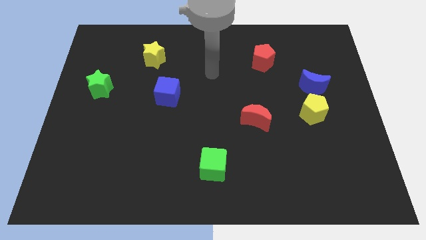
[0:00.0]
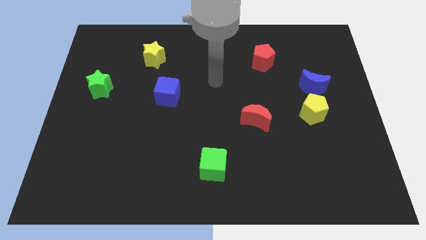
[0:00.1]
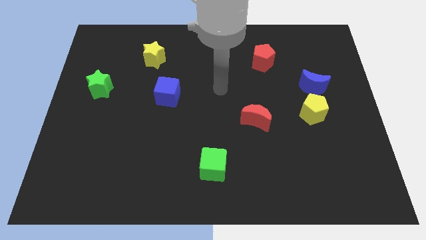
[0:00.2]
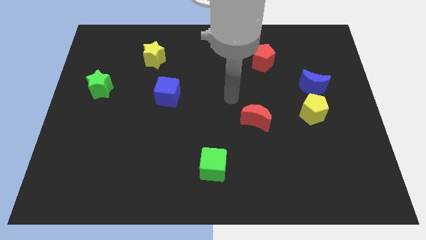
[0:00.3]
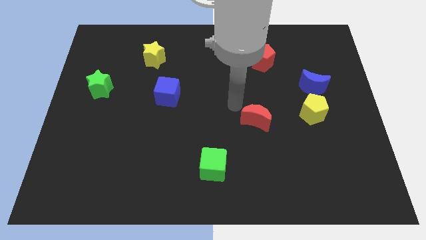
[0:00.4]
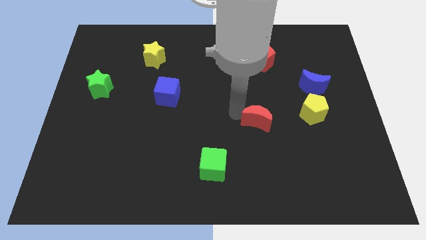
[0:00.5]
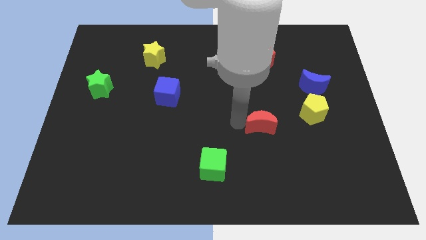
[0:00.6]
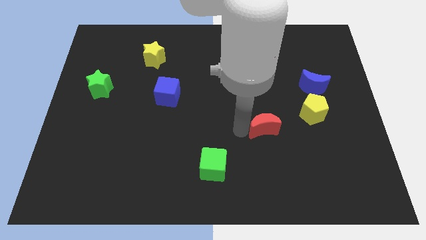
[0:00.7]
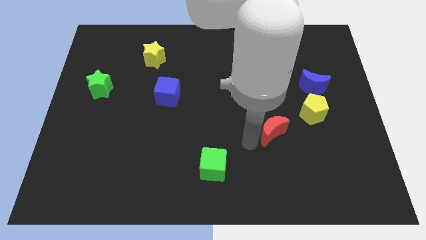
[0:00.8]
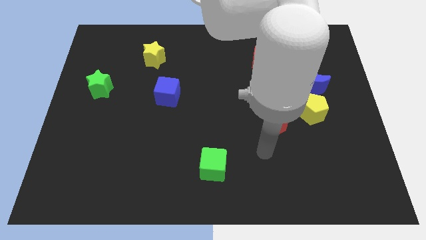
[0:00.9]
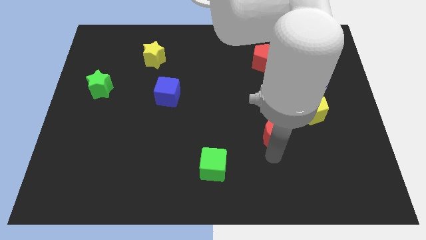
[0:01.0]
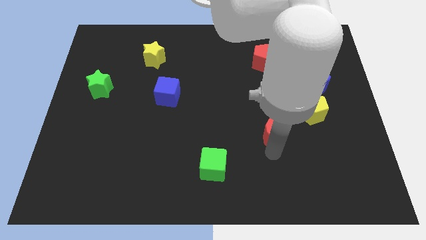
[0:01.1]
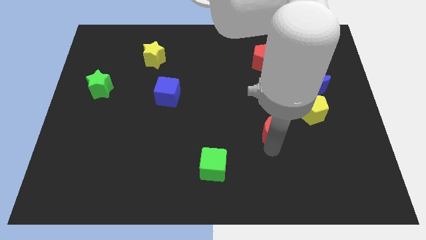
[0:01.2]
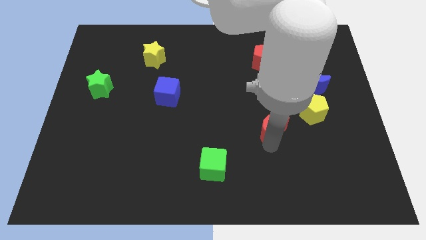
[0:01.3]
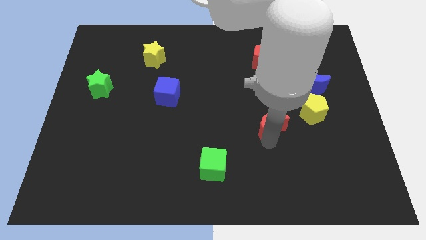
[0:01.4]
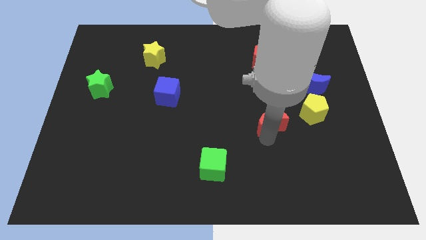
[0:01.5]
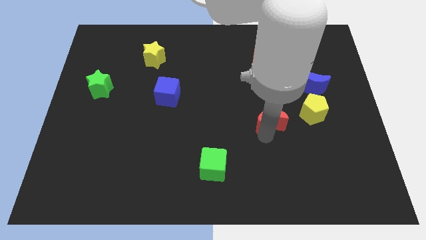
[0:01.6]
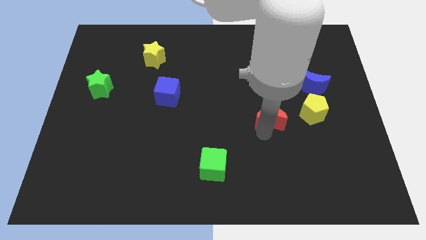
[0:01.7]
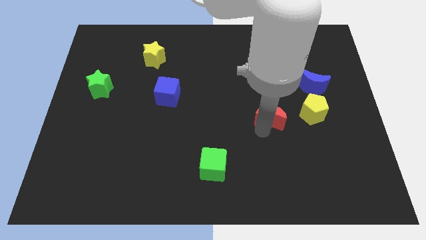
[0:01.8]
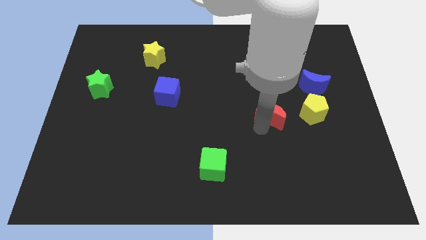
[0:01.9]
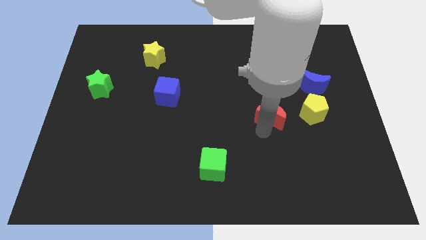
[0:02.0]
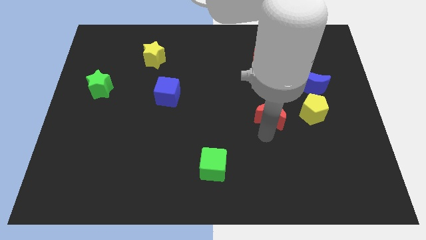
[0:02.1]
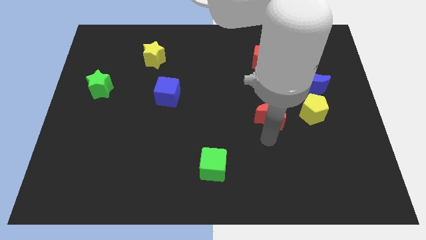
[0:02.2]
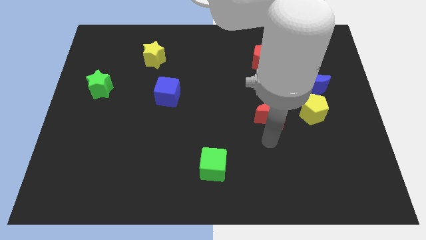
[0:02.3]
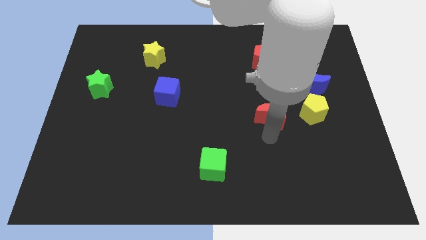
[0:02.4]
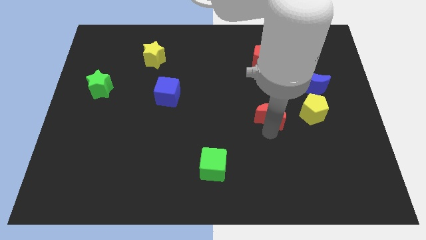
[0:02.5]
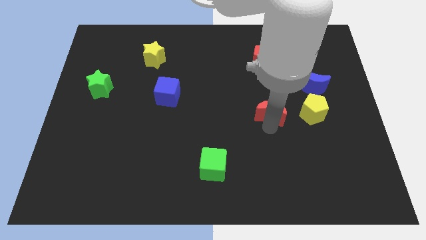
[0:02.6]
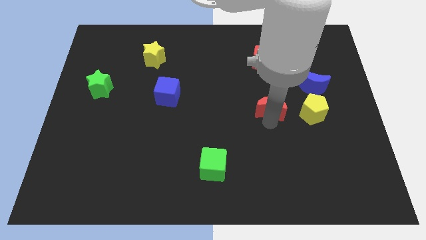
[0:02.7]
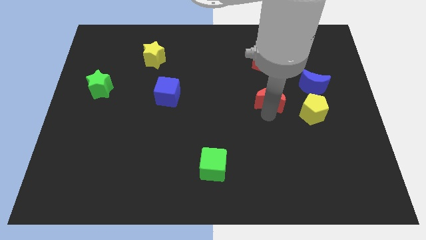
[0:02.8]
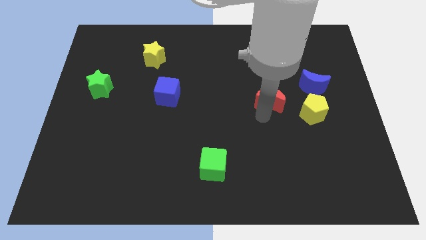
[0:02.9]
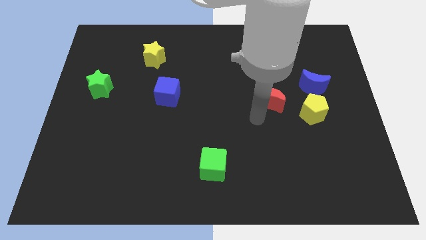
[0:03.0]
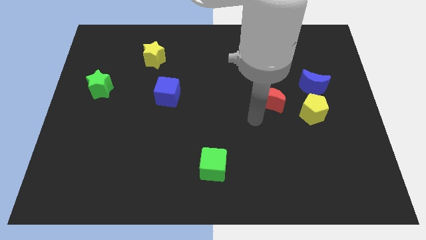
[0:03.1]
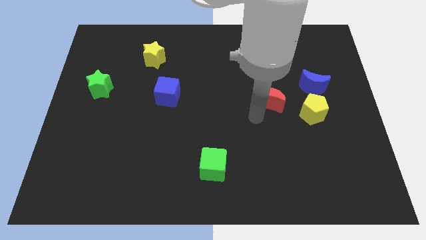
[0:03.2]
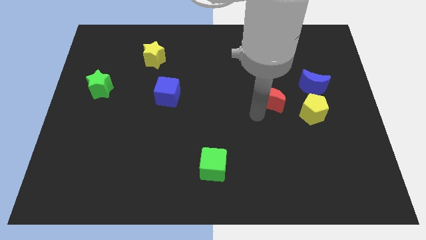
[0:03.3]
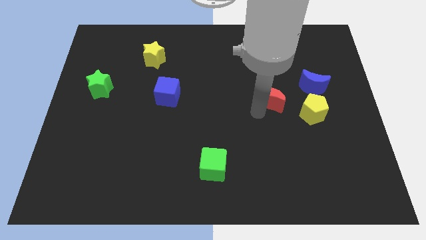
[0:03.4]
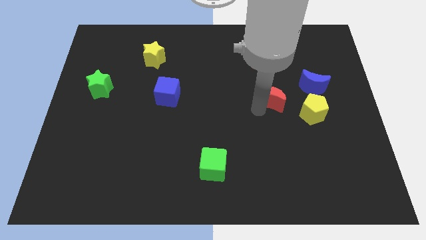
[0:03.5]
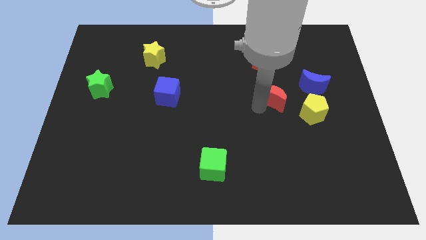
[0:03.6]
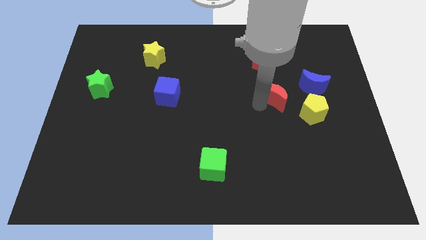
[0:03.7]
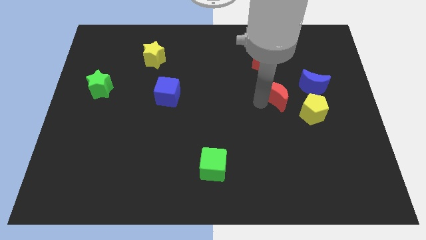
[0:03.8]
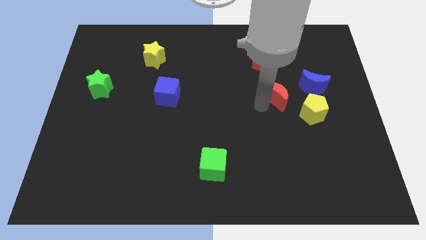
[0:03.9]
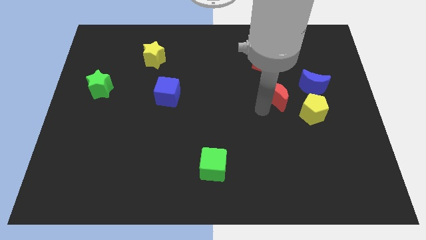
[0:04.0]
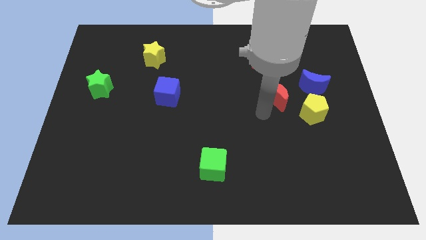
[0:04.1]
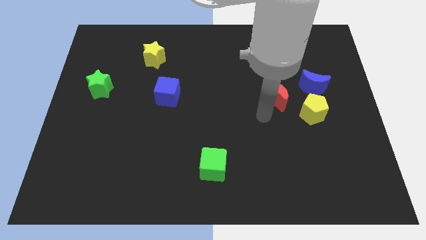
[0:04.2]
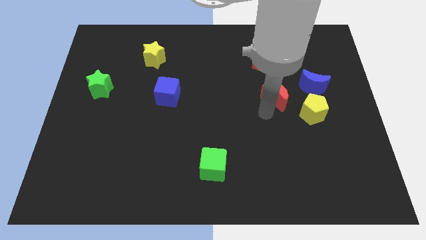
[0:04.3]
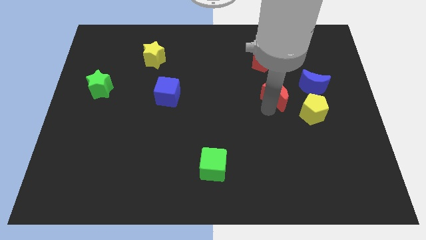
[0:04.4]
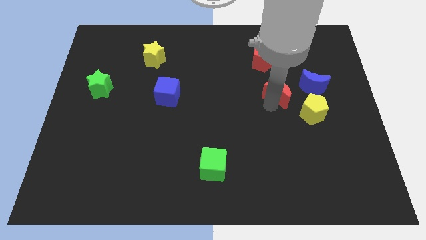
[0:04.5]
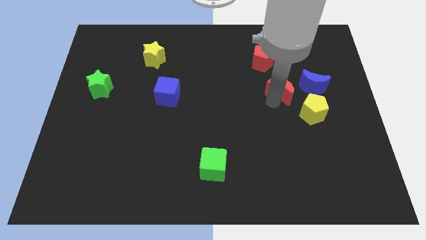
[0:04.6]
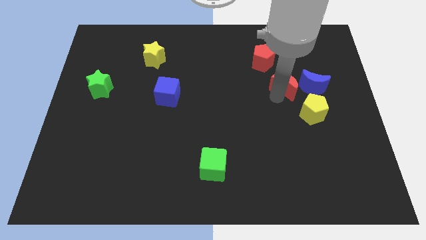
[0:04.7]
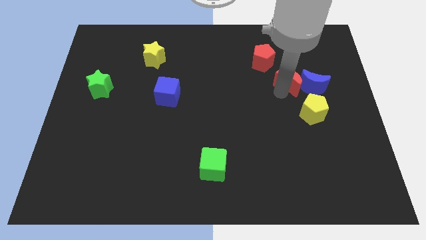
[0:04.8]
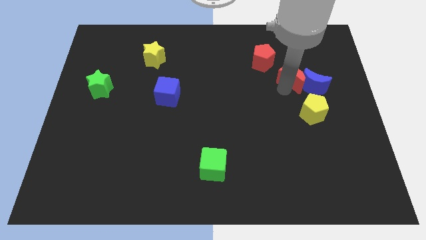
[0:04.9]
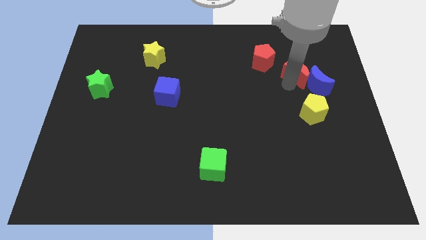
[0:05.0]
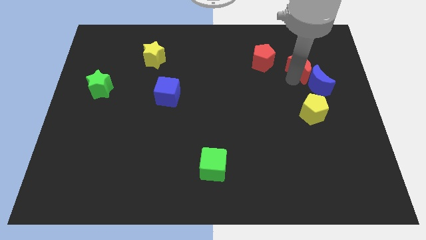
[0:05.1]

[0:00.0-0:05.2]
move the red moon to the top of the blue moon

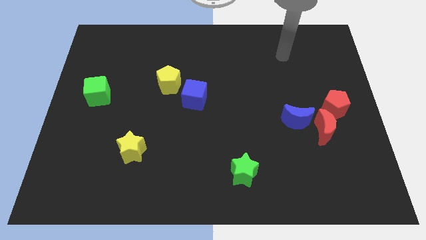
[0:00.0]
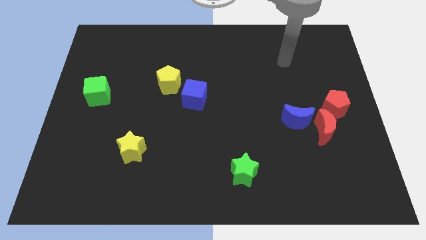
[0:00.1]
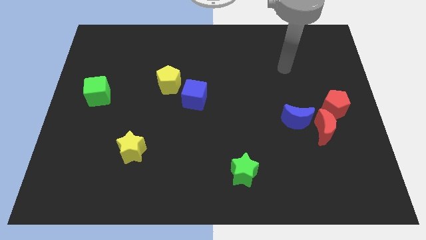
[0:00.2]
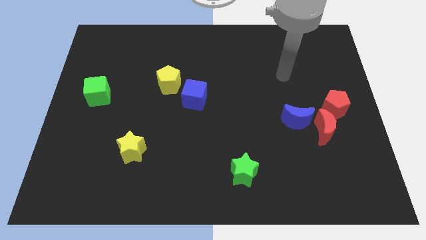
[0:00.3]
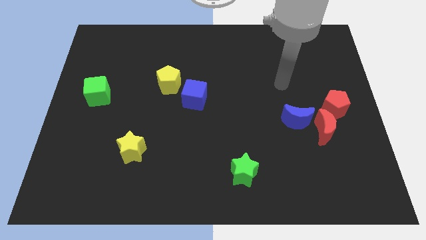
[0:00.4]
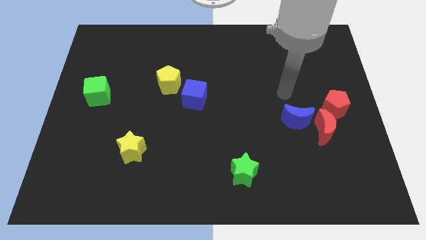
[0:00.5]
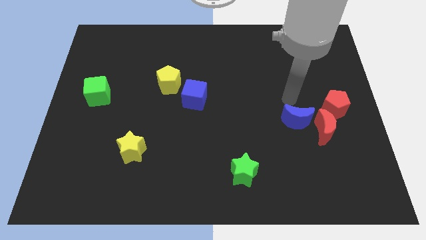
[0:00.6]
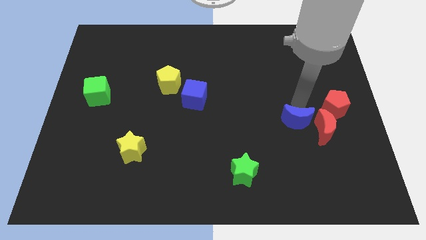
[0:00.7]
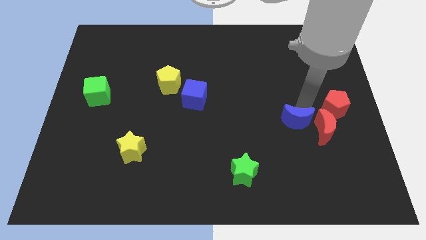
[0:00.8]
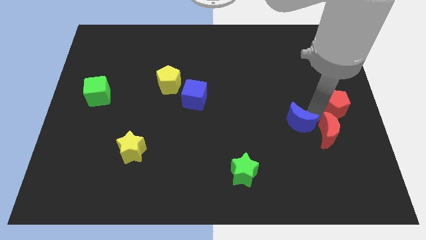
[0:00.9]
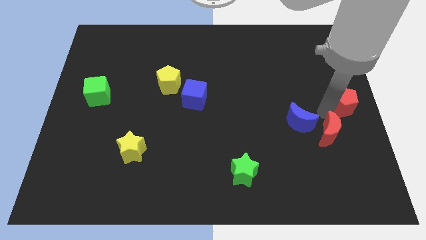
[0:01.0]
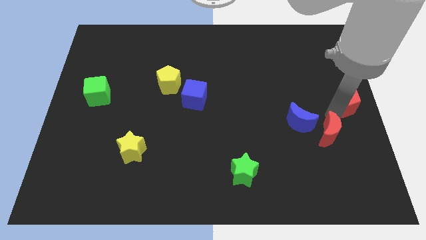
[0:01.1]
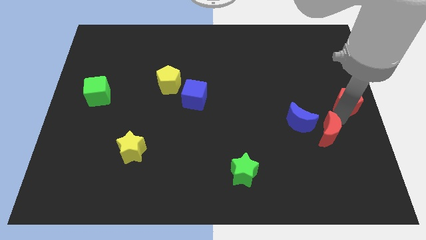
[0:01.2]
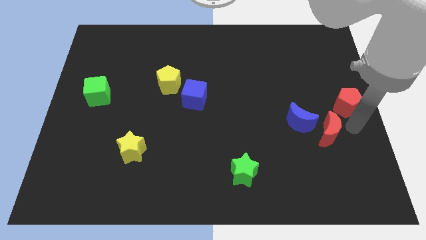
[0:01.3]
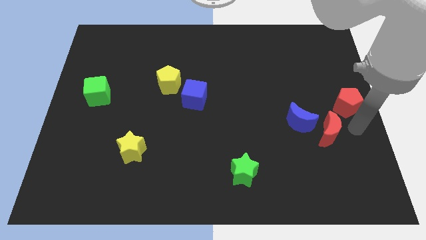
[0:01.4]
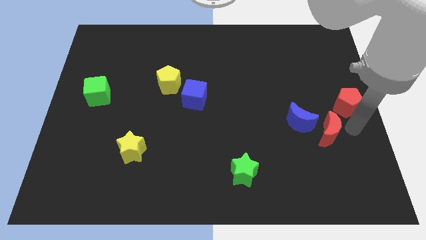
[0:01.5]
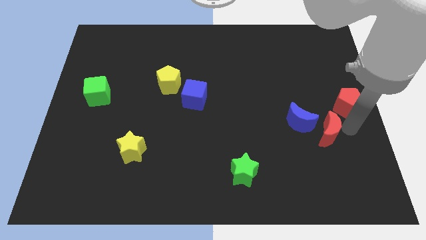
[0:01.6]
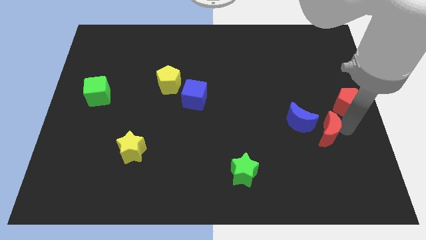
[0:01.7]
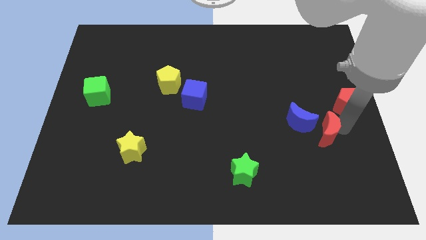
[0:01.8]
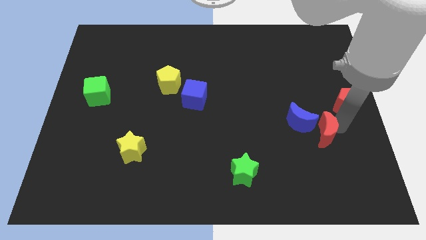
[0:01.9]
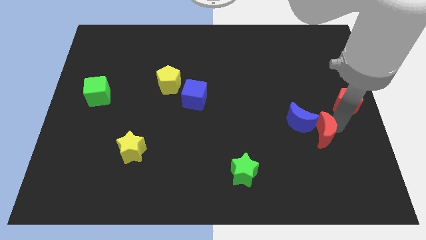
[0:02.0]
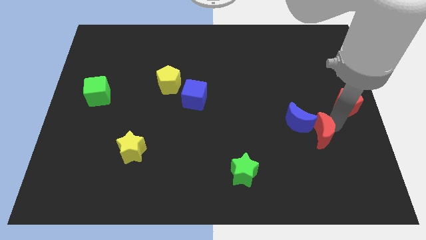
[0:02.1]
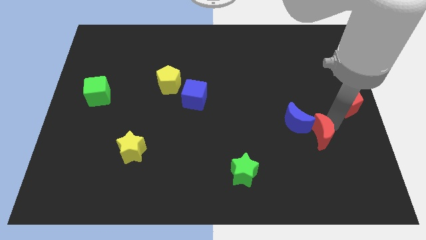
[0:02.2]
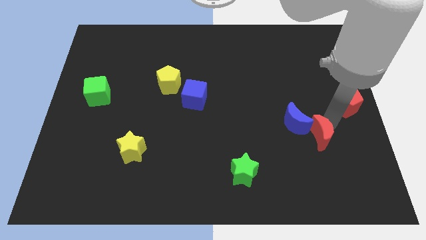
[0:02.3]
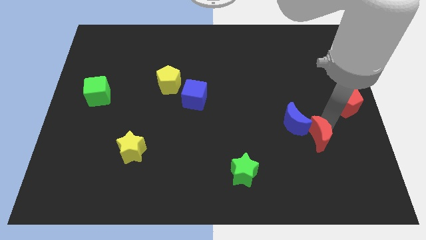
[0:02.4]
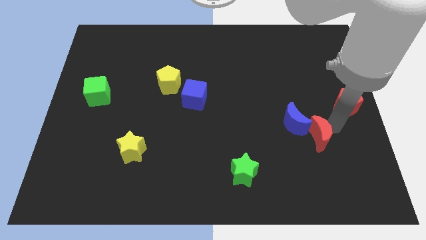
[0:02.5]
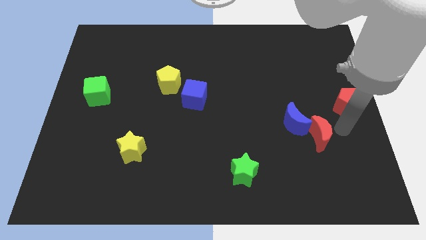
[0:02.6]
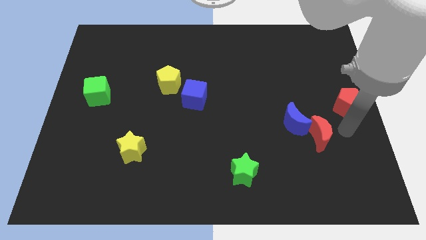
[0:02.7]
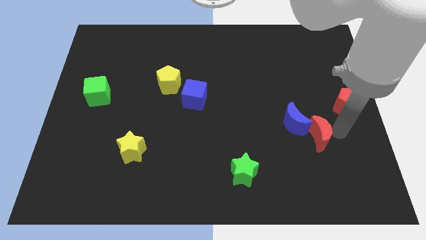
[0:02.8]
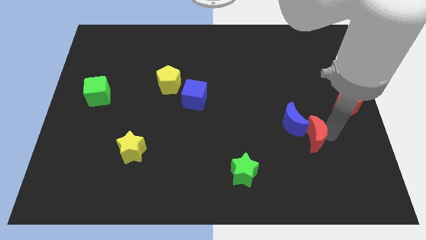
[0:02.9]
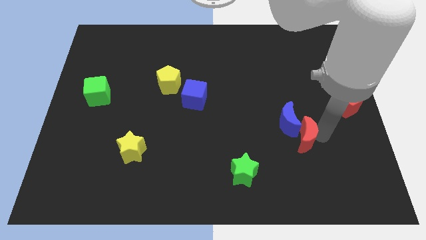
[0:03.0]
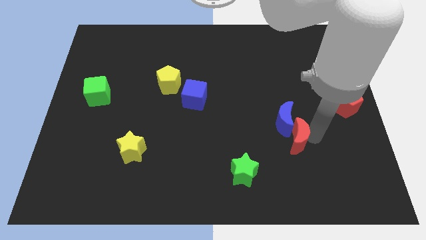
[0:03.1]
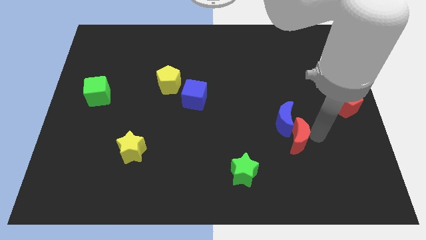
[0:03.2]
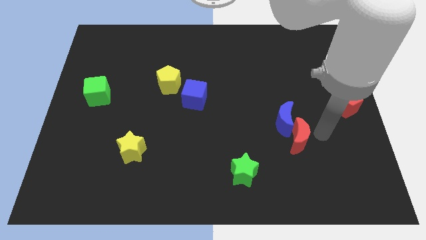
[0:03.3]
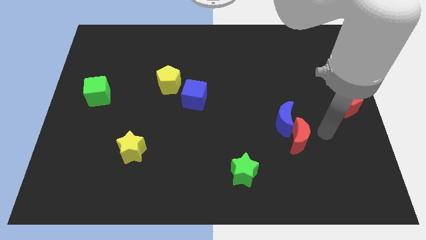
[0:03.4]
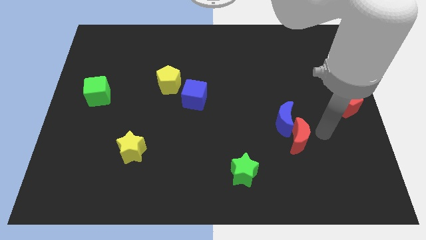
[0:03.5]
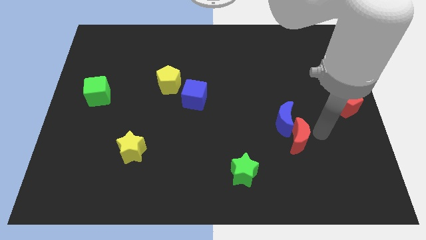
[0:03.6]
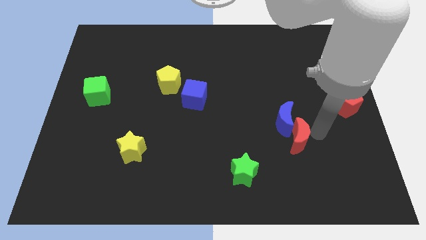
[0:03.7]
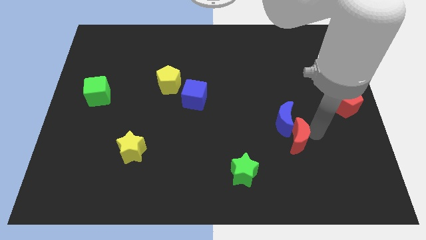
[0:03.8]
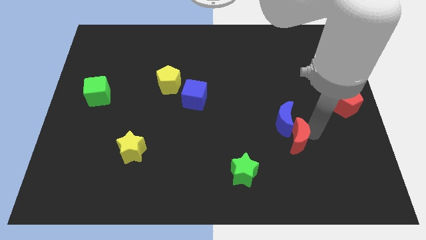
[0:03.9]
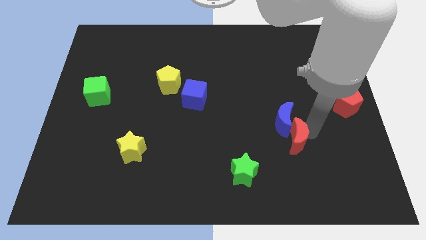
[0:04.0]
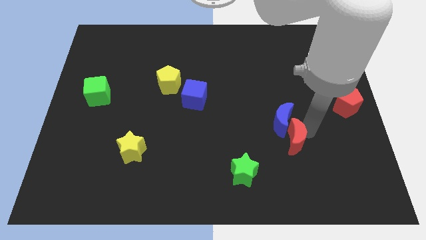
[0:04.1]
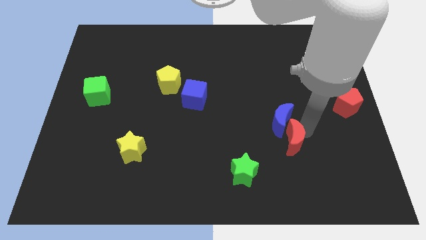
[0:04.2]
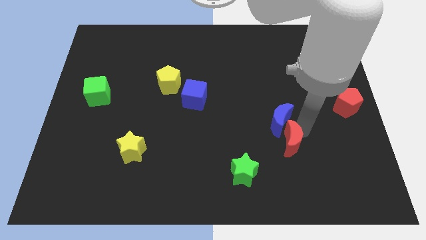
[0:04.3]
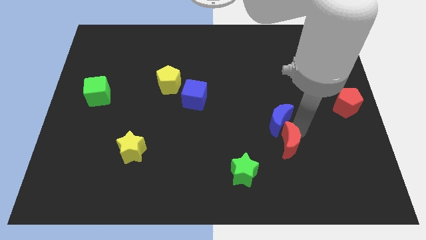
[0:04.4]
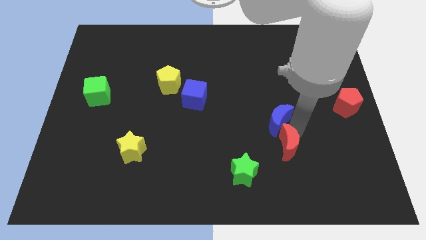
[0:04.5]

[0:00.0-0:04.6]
push the red moon to the top right of the green star
